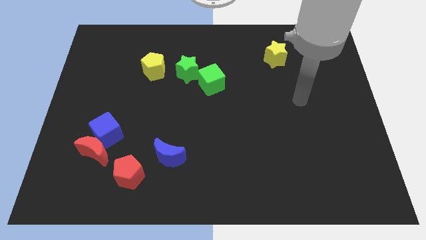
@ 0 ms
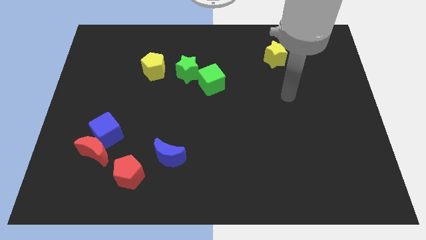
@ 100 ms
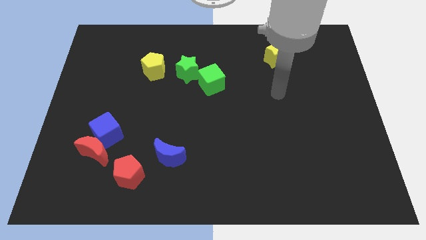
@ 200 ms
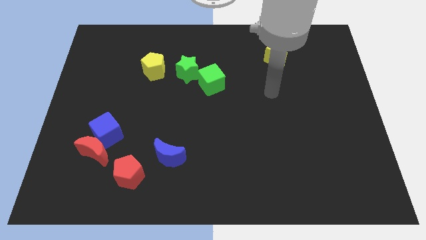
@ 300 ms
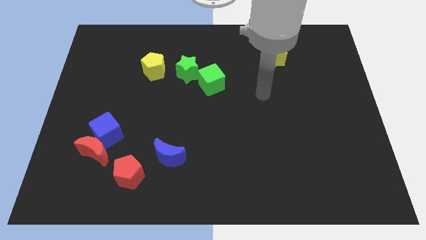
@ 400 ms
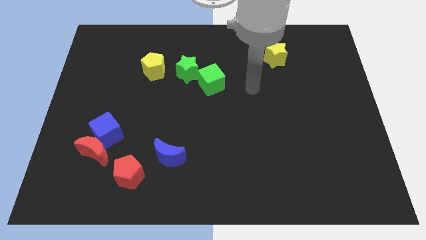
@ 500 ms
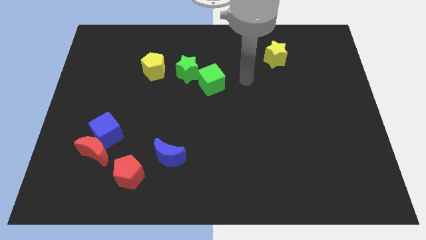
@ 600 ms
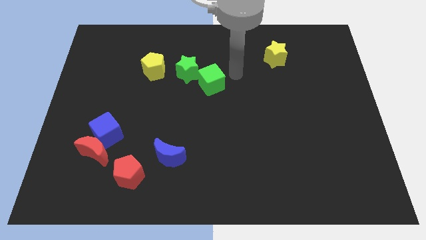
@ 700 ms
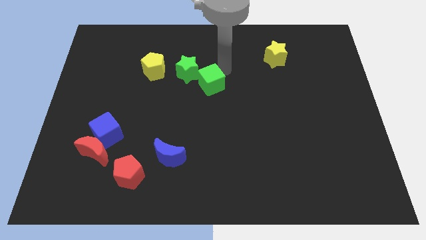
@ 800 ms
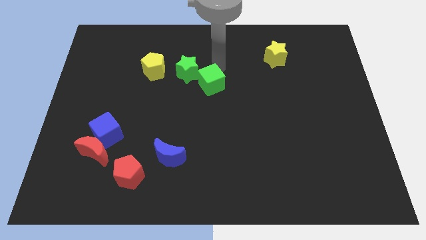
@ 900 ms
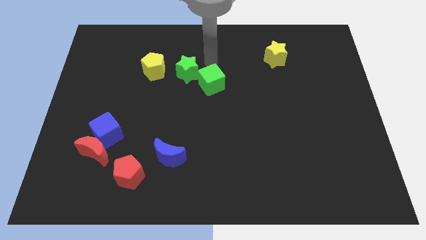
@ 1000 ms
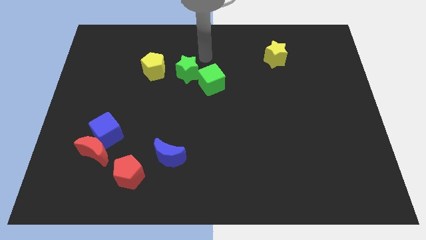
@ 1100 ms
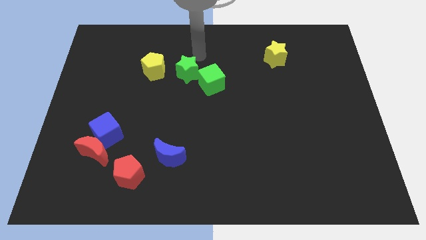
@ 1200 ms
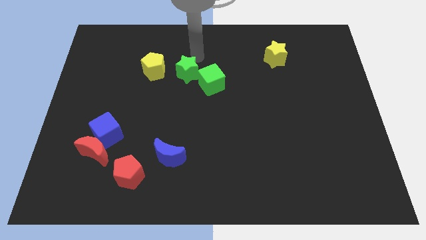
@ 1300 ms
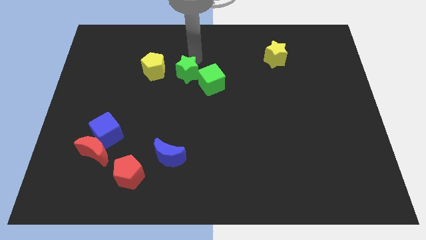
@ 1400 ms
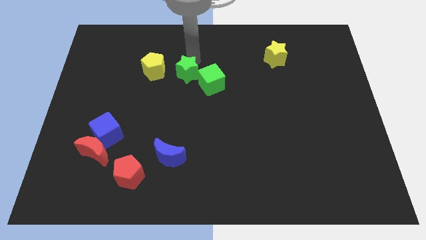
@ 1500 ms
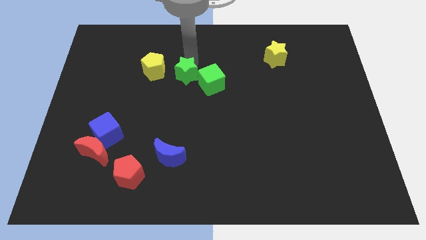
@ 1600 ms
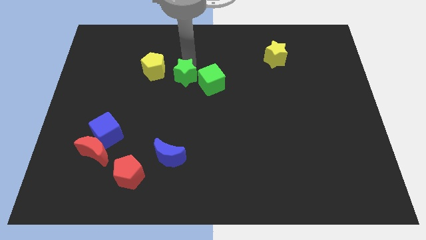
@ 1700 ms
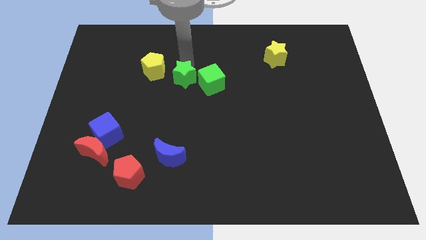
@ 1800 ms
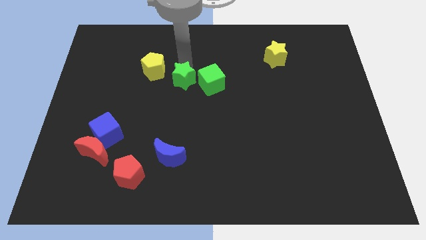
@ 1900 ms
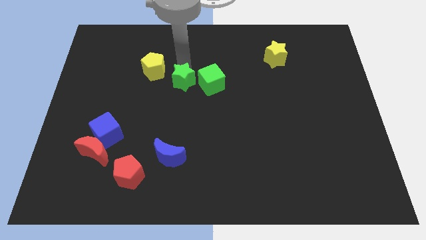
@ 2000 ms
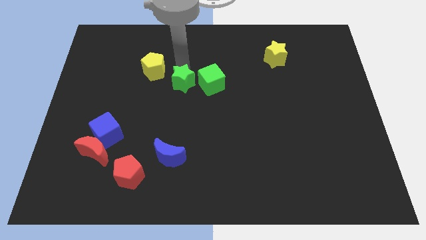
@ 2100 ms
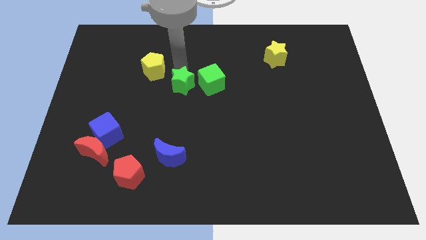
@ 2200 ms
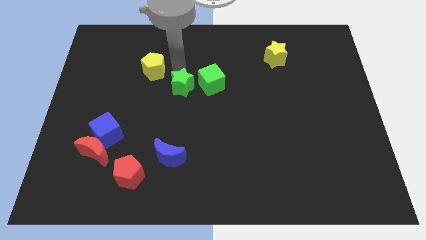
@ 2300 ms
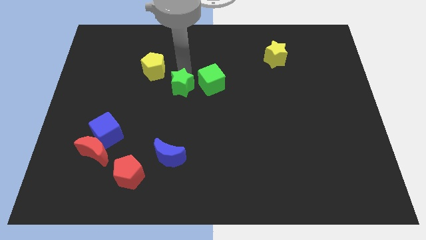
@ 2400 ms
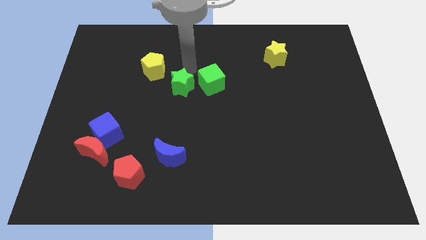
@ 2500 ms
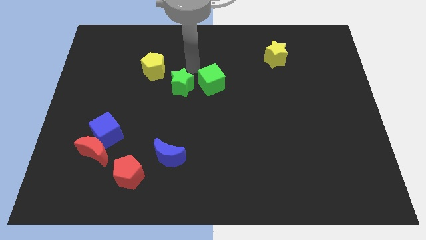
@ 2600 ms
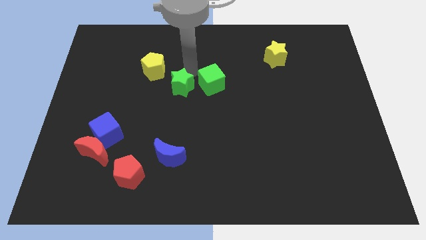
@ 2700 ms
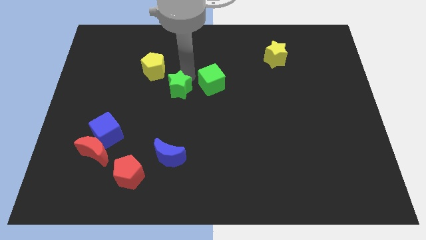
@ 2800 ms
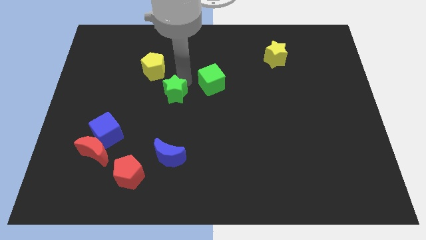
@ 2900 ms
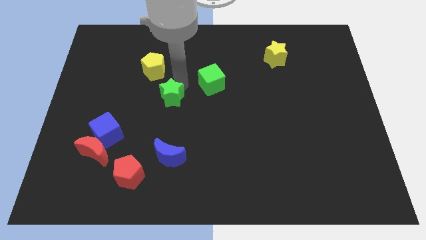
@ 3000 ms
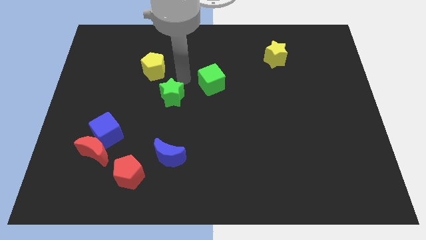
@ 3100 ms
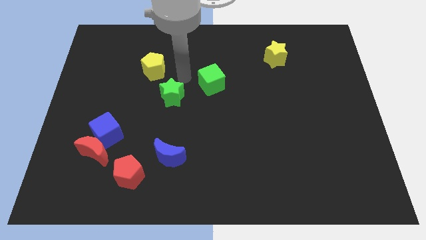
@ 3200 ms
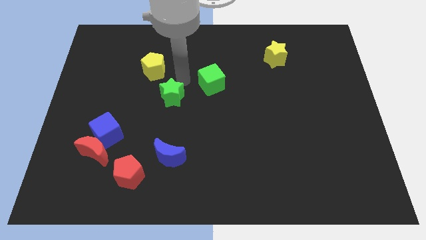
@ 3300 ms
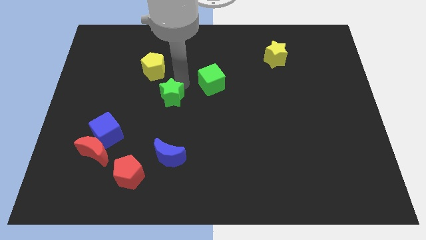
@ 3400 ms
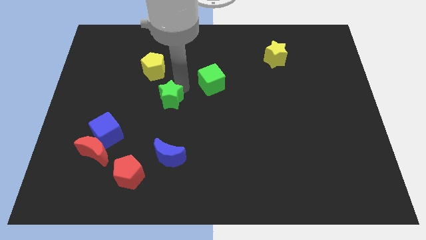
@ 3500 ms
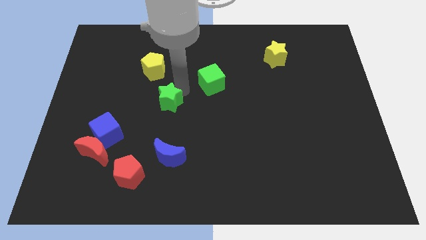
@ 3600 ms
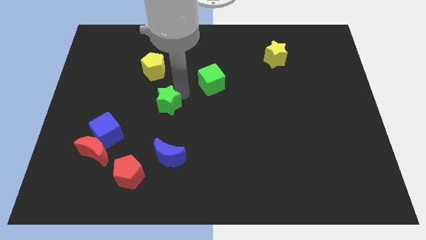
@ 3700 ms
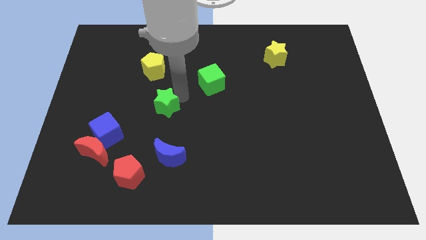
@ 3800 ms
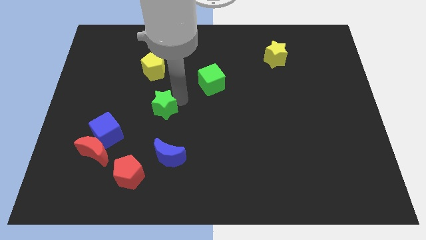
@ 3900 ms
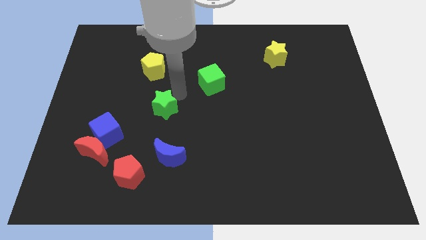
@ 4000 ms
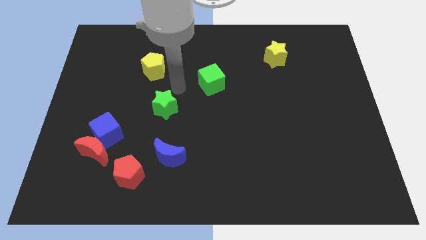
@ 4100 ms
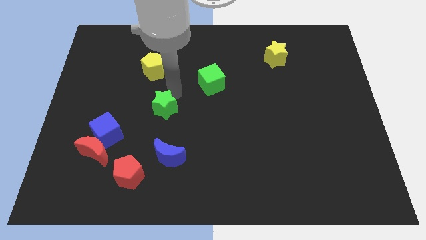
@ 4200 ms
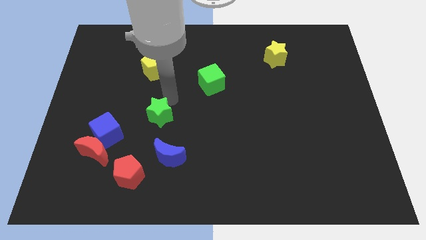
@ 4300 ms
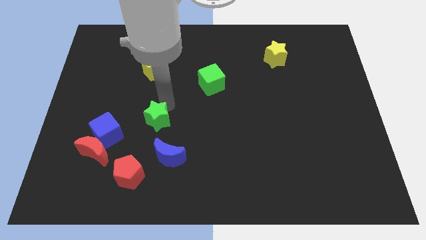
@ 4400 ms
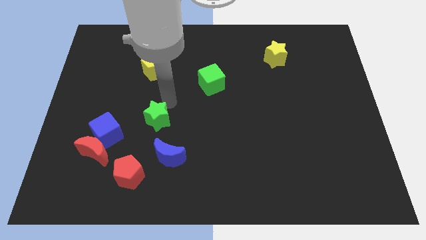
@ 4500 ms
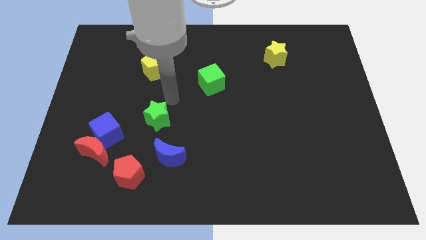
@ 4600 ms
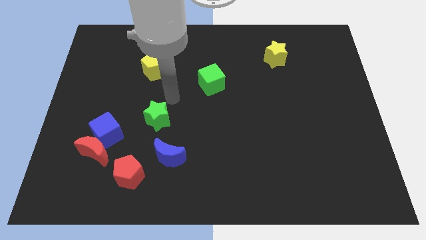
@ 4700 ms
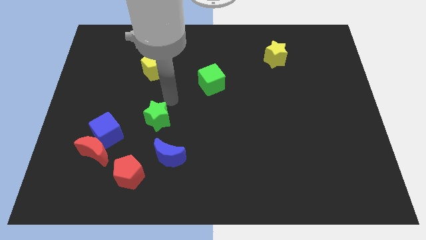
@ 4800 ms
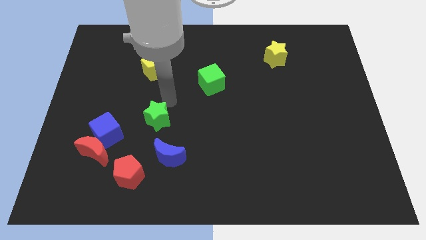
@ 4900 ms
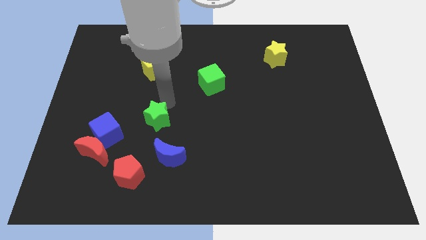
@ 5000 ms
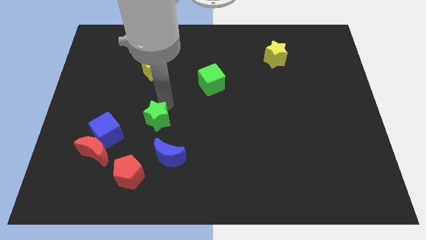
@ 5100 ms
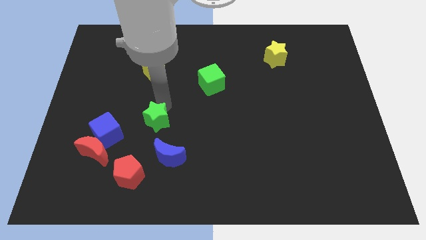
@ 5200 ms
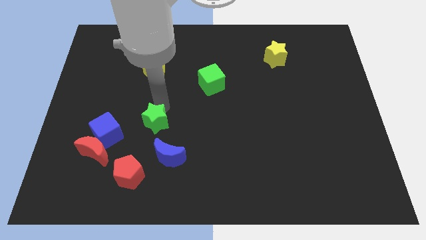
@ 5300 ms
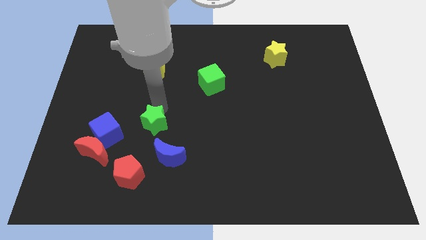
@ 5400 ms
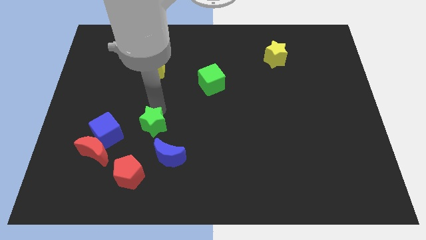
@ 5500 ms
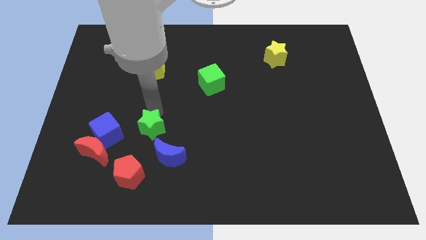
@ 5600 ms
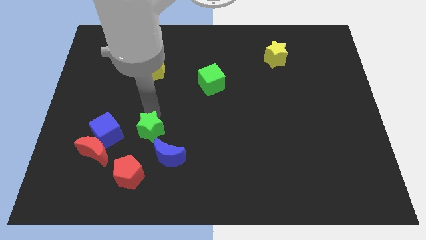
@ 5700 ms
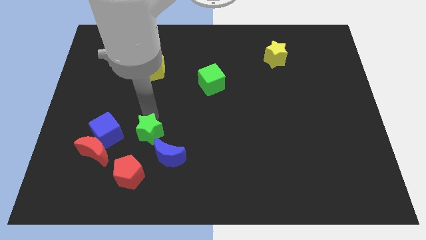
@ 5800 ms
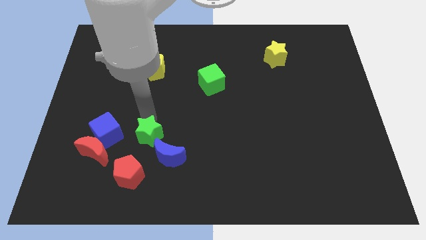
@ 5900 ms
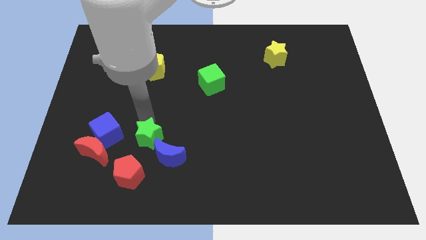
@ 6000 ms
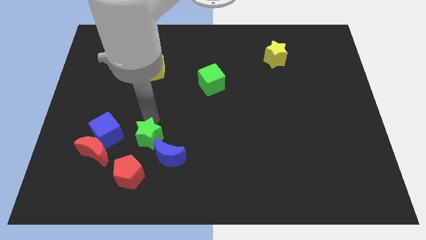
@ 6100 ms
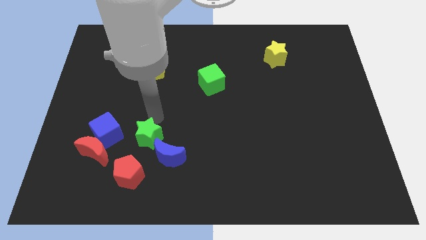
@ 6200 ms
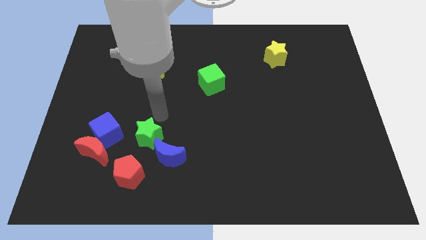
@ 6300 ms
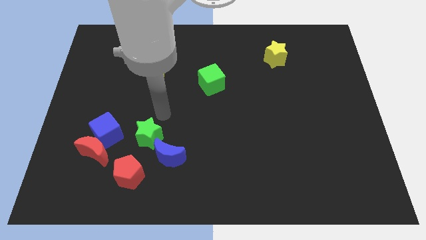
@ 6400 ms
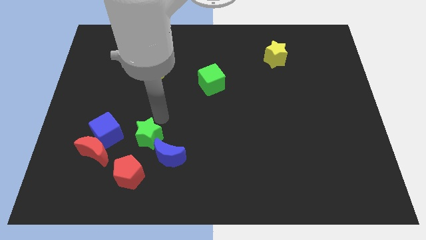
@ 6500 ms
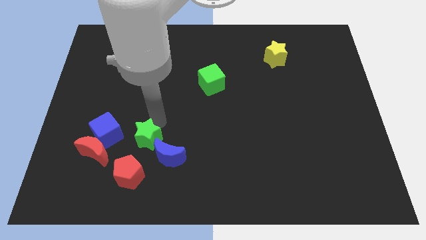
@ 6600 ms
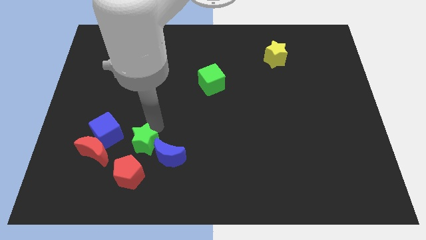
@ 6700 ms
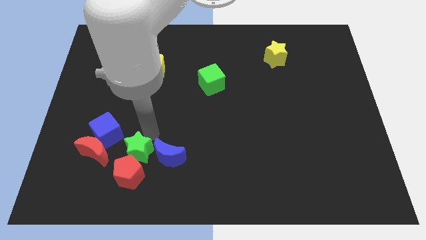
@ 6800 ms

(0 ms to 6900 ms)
slide the green star close to the red pentagon
